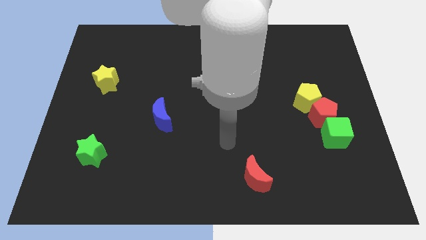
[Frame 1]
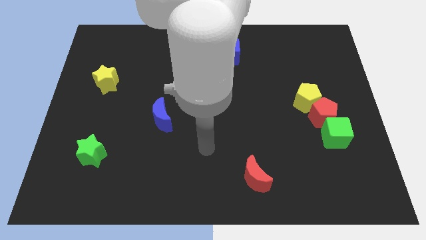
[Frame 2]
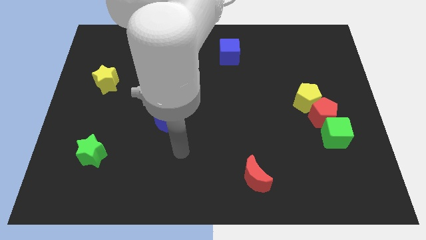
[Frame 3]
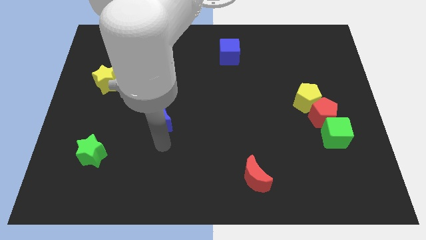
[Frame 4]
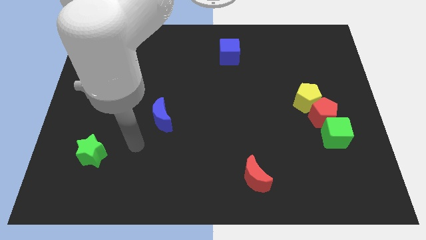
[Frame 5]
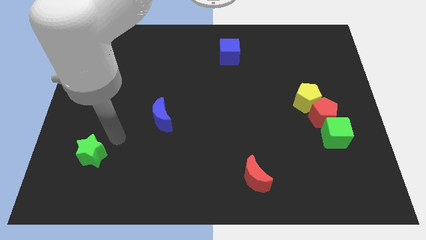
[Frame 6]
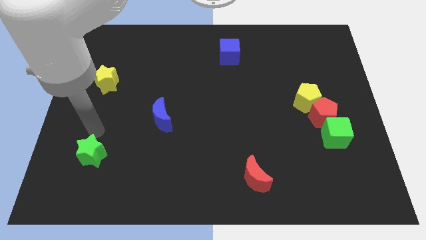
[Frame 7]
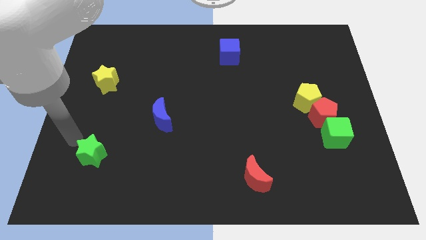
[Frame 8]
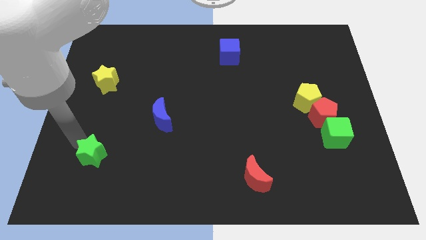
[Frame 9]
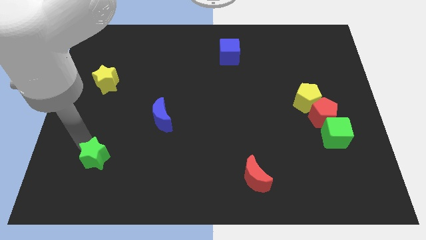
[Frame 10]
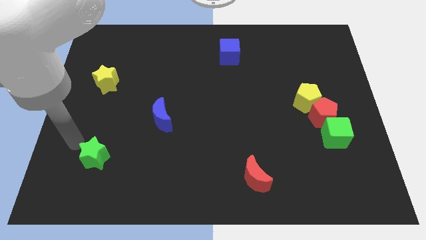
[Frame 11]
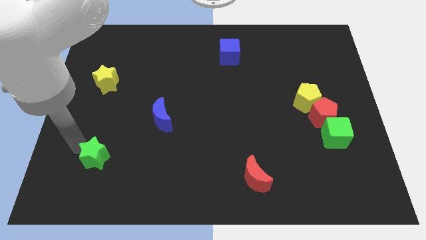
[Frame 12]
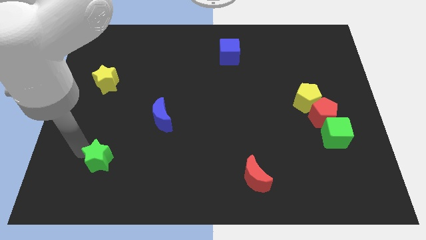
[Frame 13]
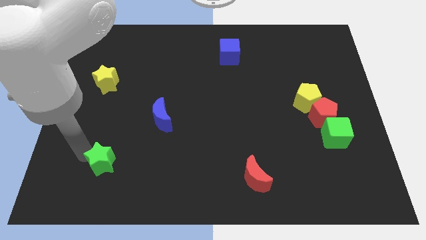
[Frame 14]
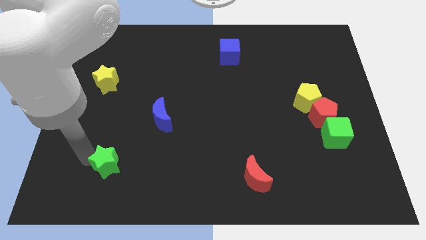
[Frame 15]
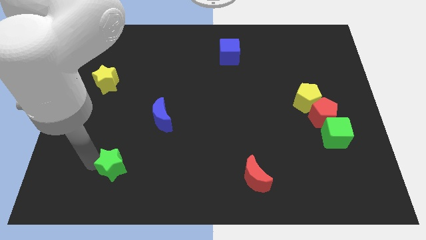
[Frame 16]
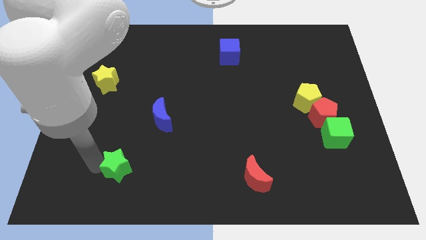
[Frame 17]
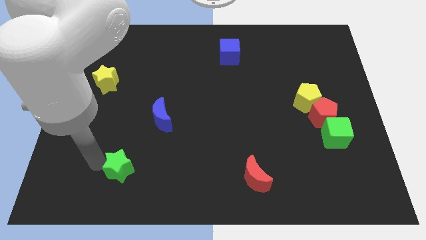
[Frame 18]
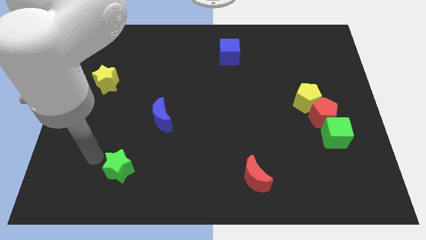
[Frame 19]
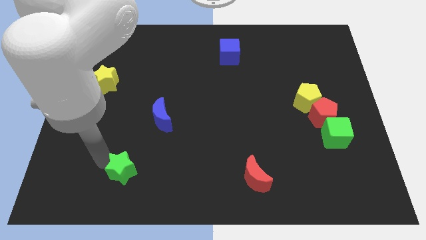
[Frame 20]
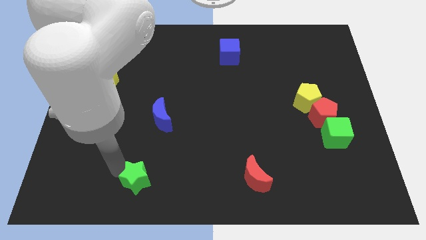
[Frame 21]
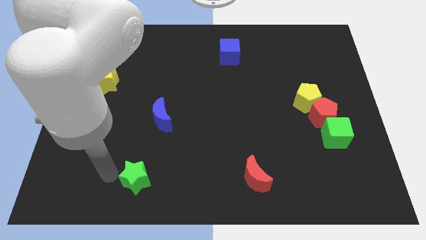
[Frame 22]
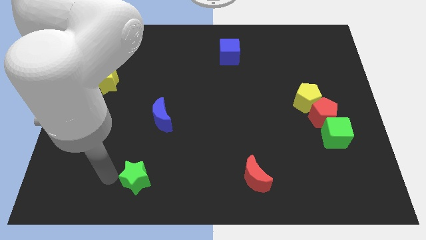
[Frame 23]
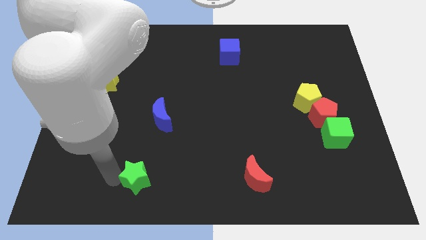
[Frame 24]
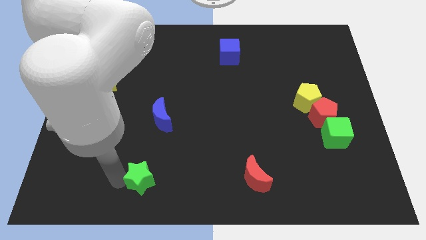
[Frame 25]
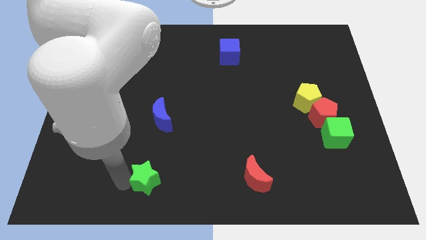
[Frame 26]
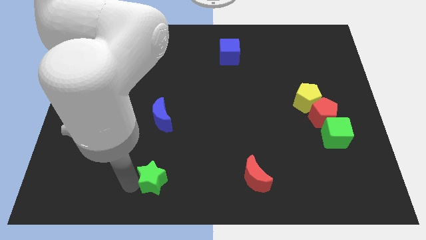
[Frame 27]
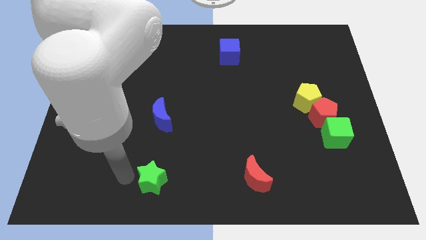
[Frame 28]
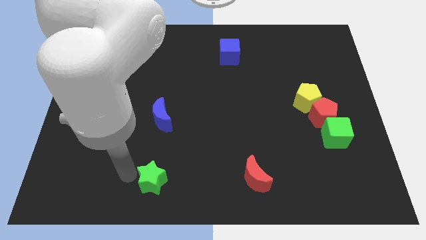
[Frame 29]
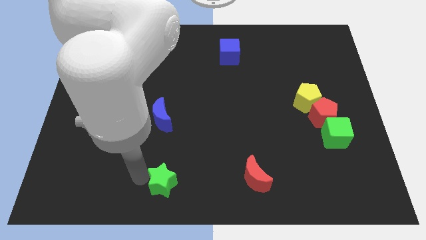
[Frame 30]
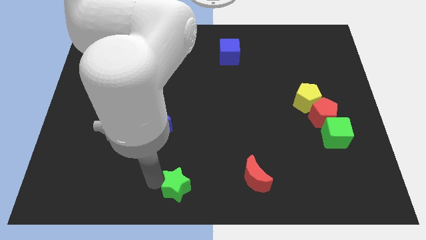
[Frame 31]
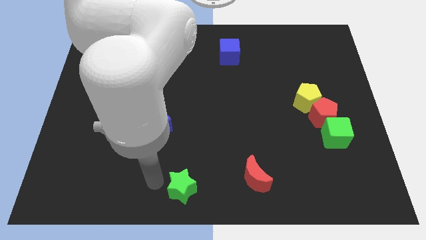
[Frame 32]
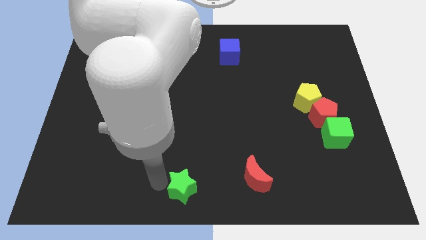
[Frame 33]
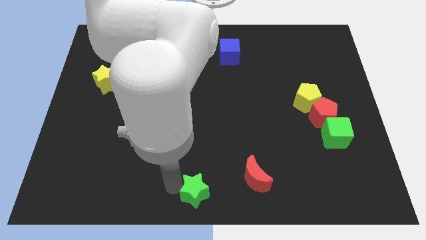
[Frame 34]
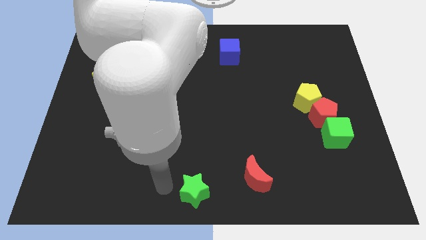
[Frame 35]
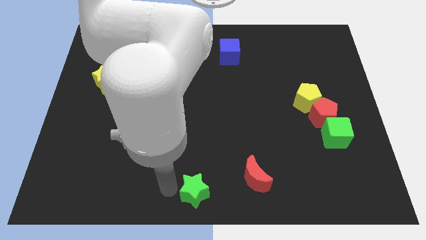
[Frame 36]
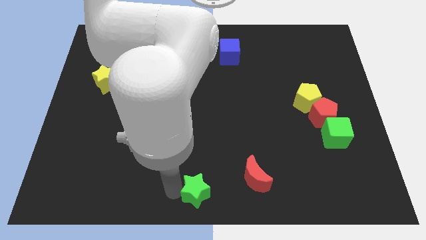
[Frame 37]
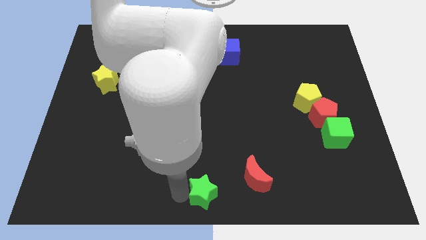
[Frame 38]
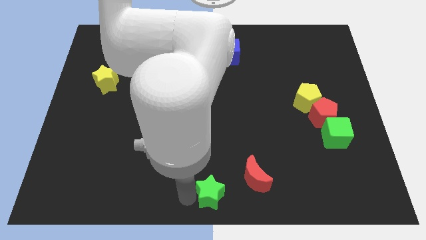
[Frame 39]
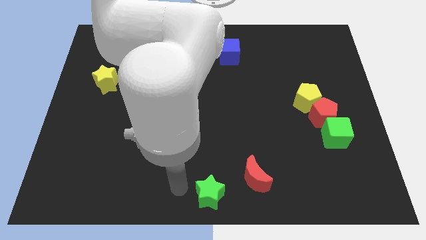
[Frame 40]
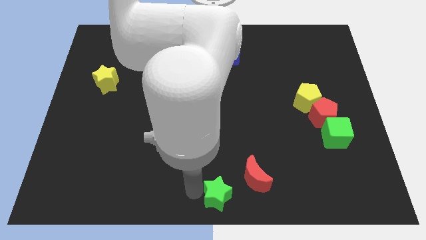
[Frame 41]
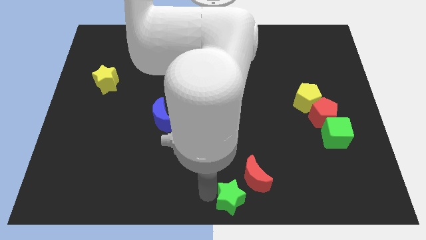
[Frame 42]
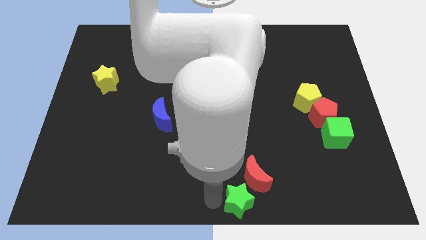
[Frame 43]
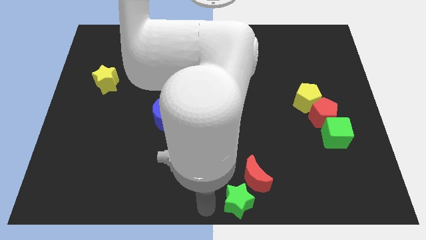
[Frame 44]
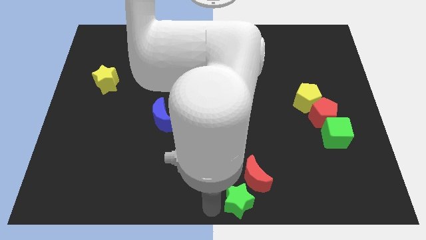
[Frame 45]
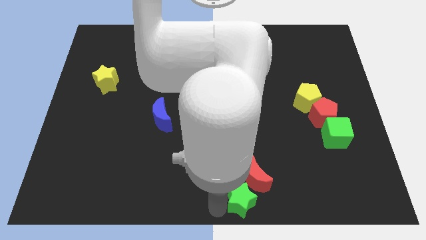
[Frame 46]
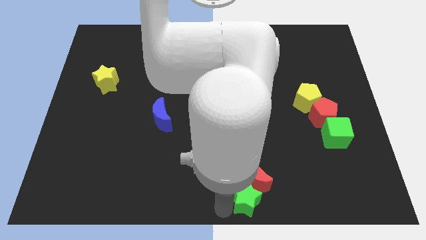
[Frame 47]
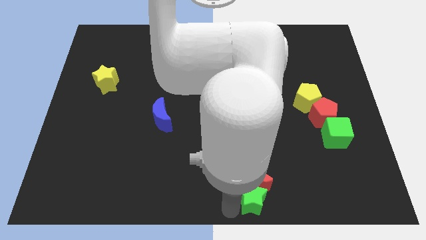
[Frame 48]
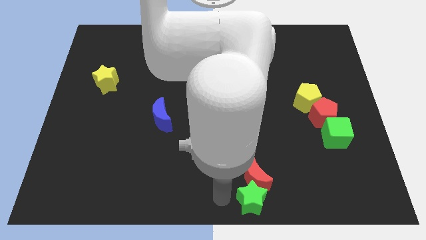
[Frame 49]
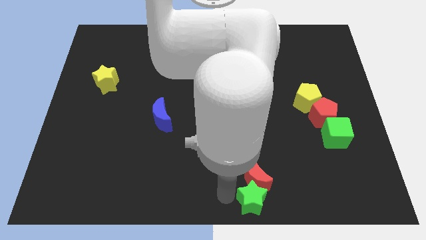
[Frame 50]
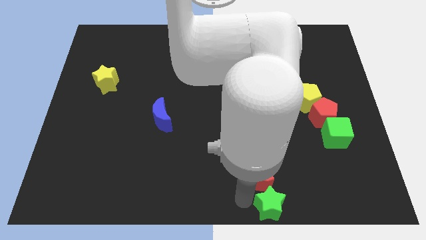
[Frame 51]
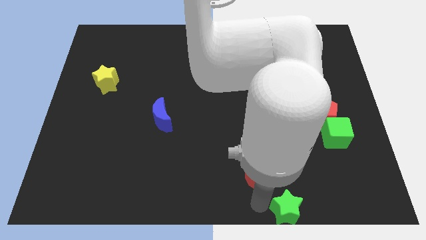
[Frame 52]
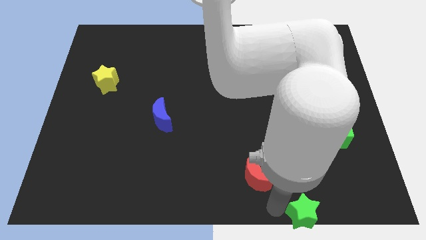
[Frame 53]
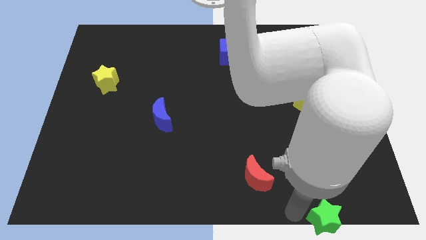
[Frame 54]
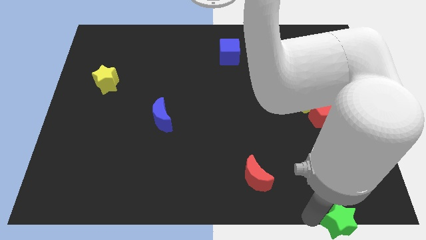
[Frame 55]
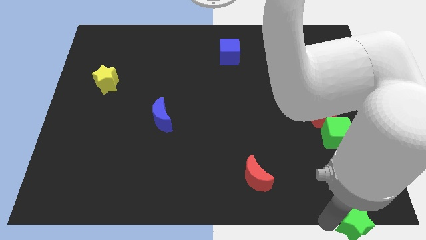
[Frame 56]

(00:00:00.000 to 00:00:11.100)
slide the green star to the bottom right corner
